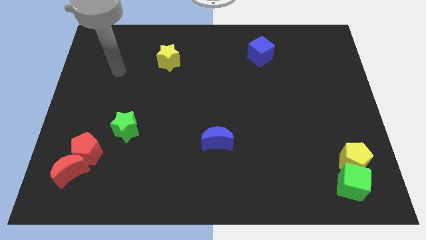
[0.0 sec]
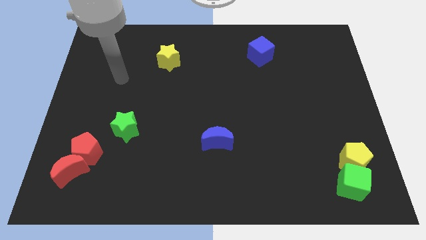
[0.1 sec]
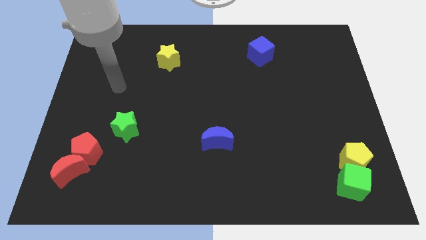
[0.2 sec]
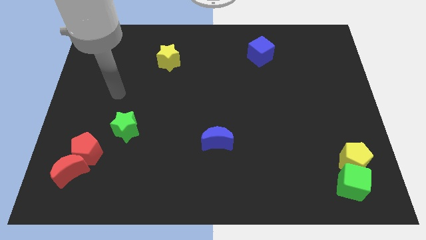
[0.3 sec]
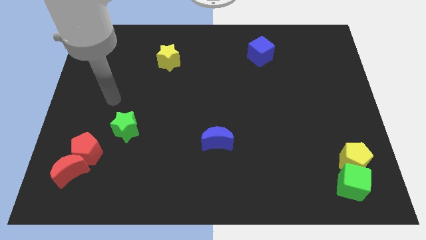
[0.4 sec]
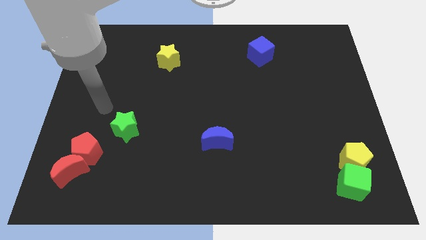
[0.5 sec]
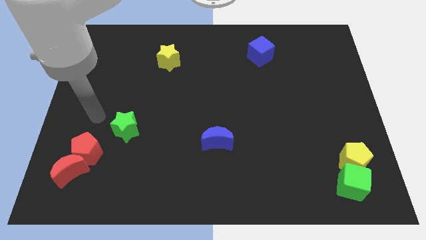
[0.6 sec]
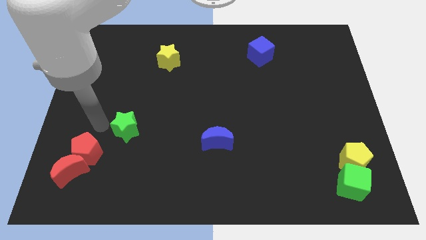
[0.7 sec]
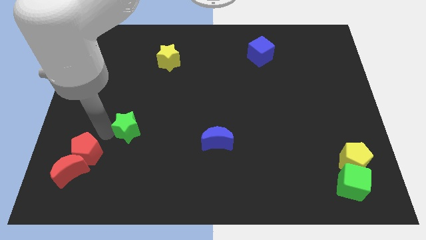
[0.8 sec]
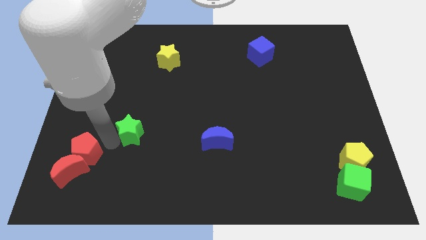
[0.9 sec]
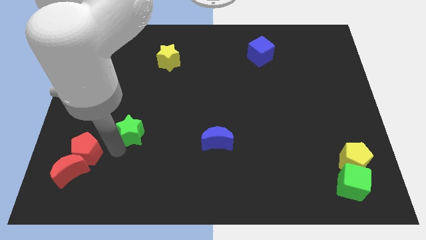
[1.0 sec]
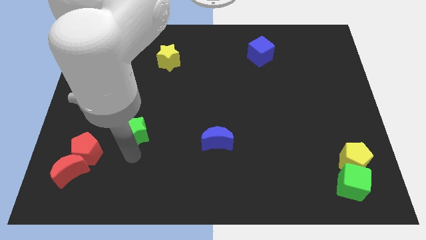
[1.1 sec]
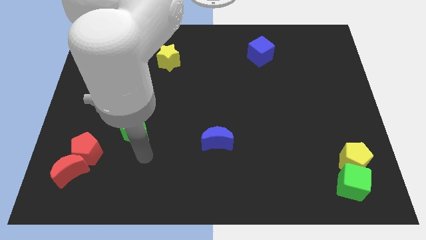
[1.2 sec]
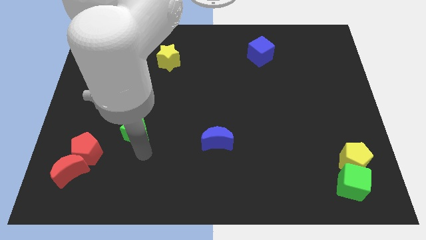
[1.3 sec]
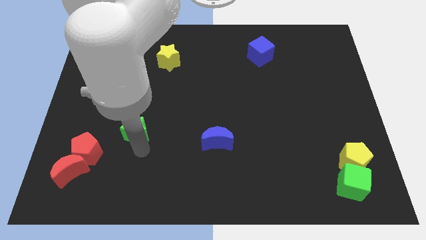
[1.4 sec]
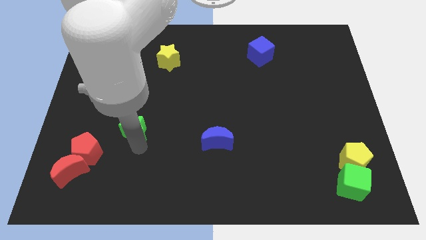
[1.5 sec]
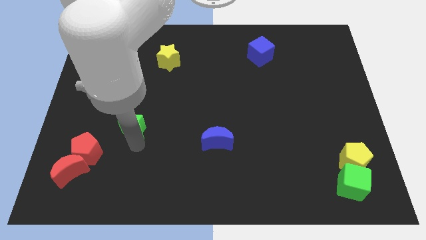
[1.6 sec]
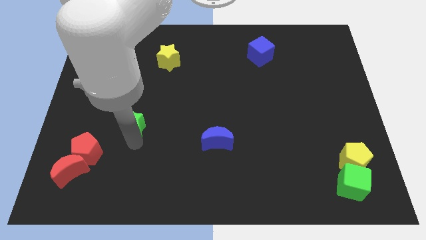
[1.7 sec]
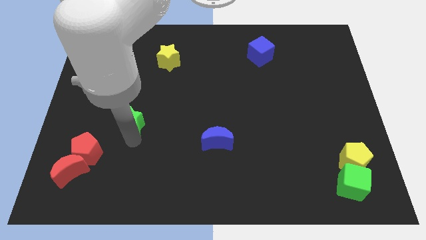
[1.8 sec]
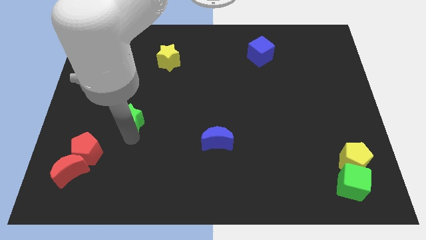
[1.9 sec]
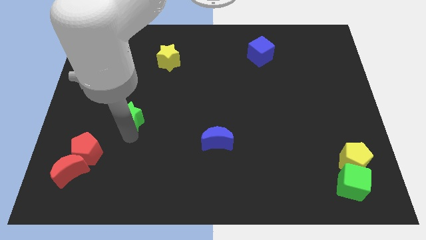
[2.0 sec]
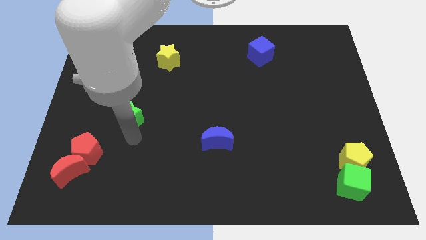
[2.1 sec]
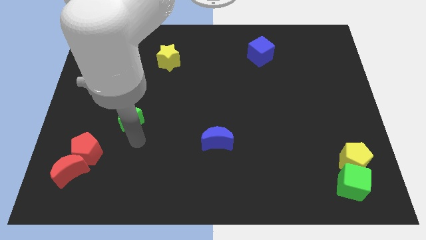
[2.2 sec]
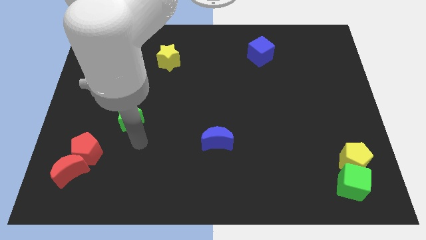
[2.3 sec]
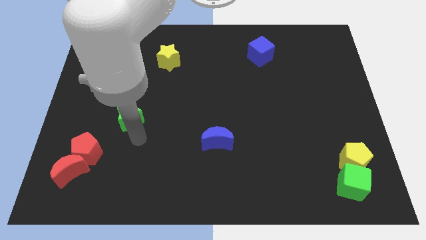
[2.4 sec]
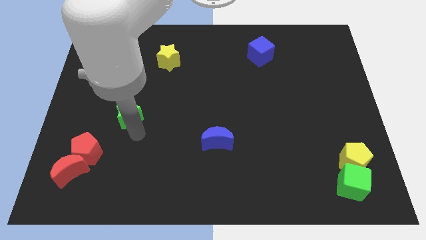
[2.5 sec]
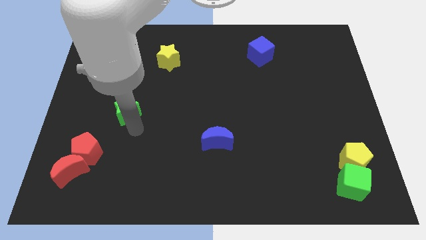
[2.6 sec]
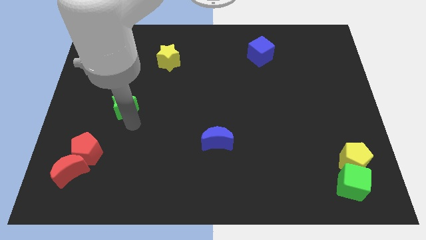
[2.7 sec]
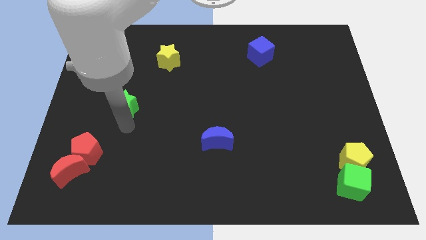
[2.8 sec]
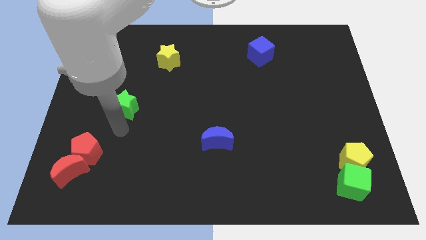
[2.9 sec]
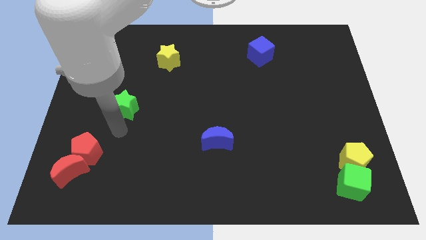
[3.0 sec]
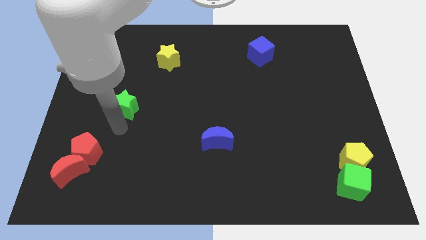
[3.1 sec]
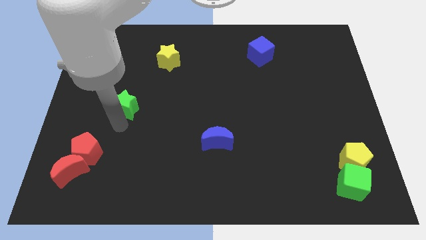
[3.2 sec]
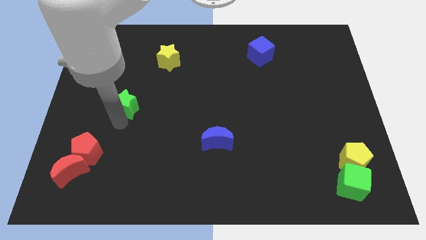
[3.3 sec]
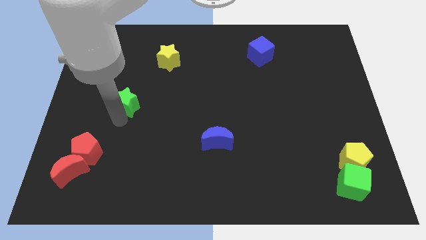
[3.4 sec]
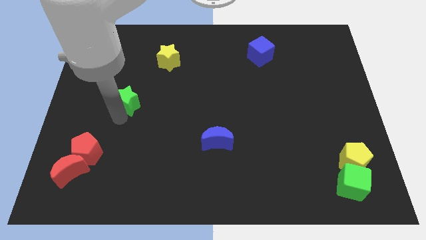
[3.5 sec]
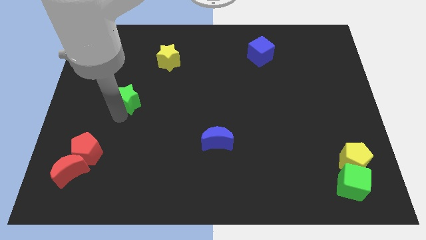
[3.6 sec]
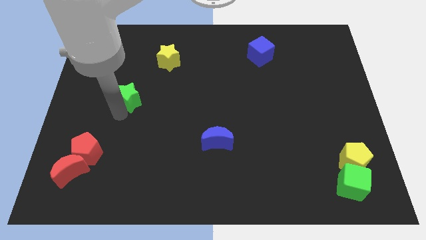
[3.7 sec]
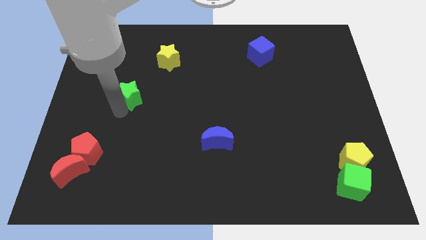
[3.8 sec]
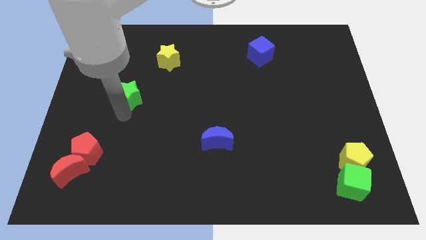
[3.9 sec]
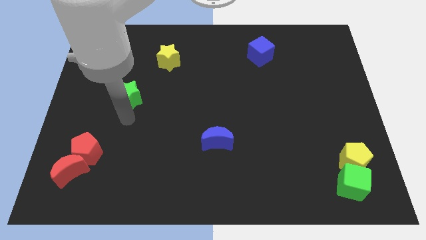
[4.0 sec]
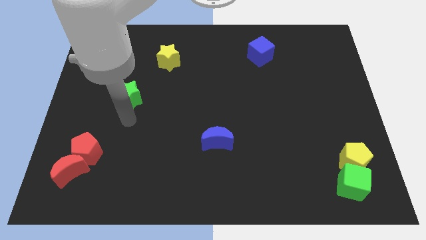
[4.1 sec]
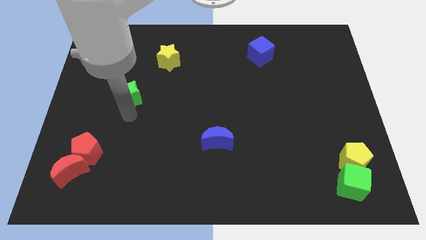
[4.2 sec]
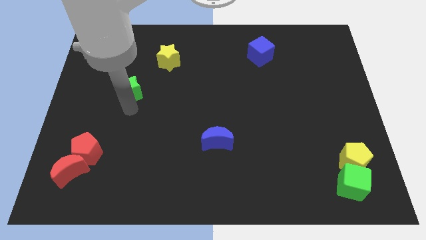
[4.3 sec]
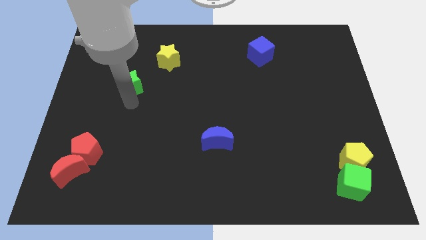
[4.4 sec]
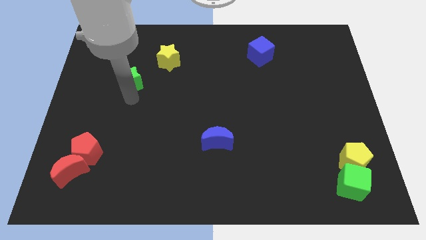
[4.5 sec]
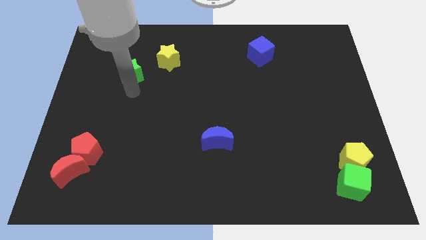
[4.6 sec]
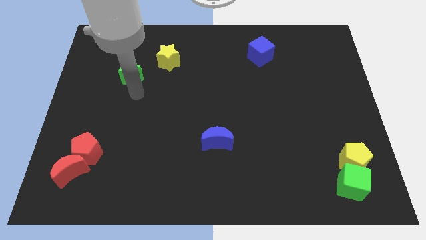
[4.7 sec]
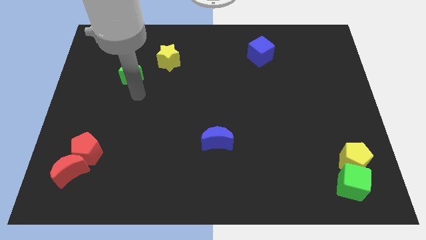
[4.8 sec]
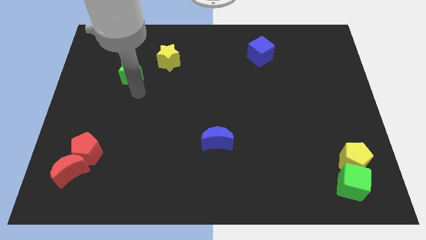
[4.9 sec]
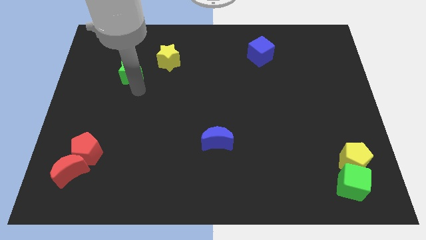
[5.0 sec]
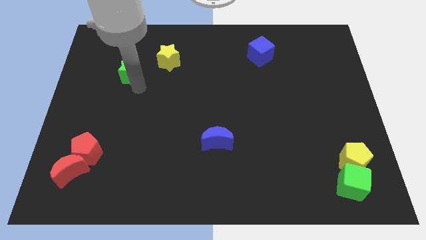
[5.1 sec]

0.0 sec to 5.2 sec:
push the green star just left of the yellow star
